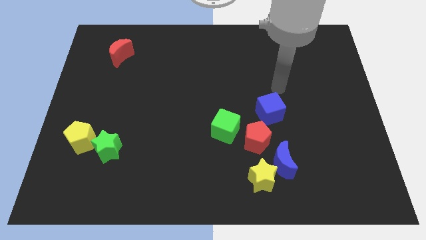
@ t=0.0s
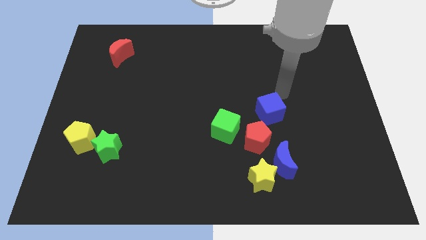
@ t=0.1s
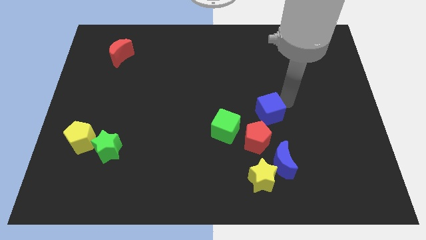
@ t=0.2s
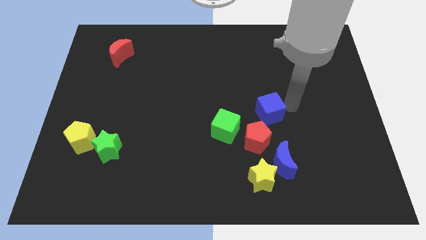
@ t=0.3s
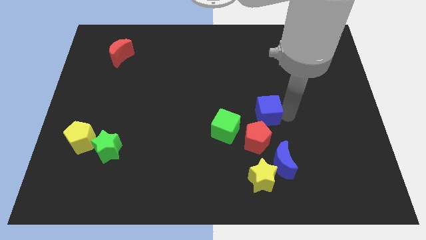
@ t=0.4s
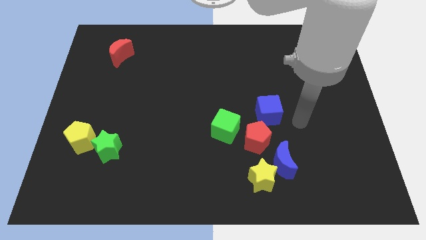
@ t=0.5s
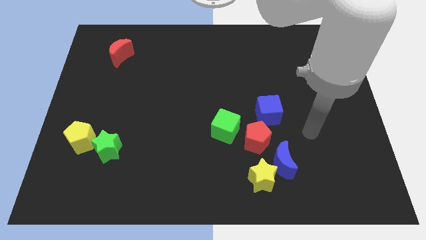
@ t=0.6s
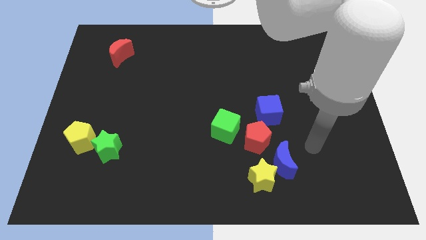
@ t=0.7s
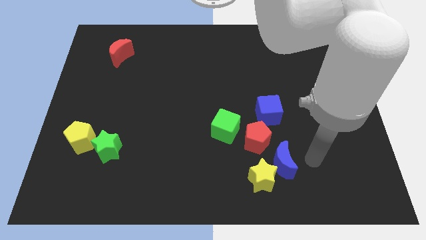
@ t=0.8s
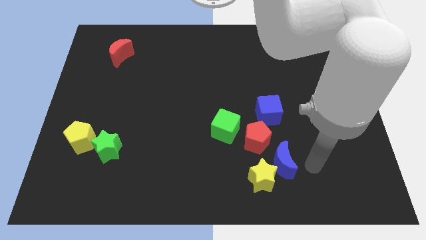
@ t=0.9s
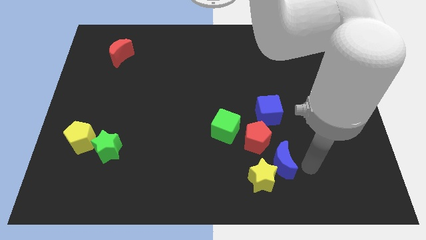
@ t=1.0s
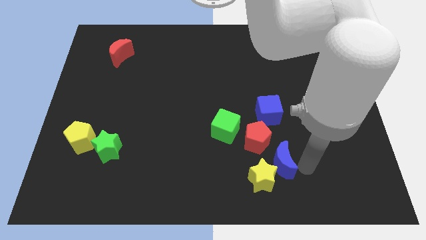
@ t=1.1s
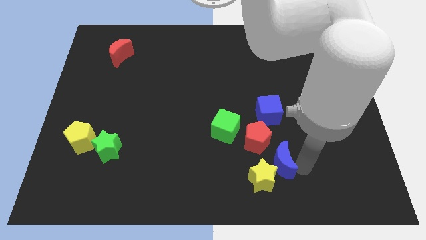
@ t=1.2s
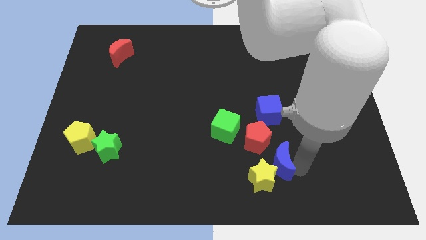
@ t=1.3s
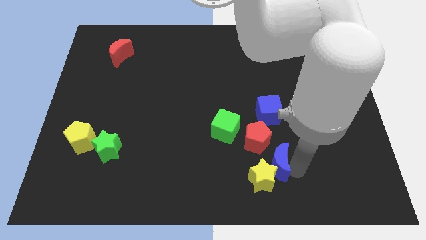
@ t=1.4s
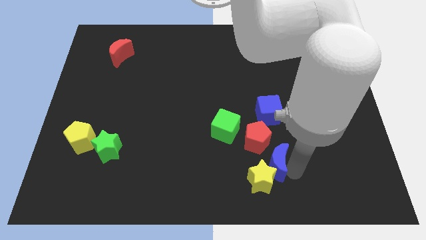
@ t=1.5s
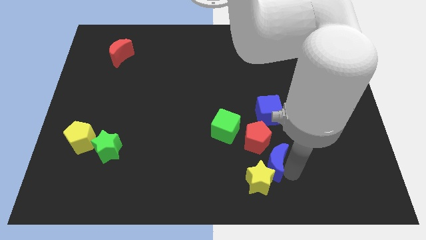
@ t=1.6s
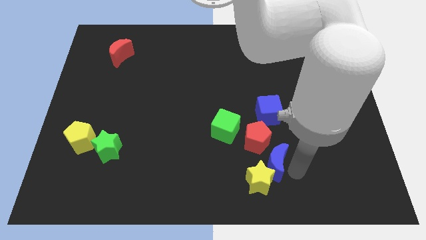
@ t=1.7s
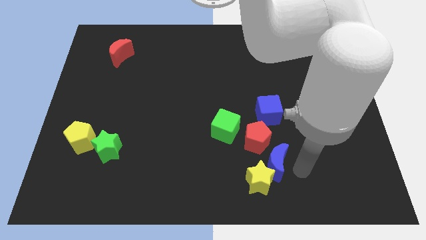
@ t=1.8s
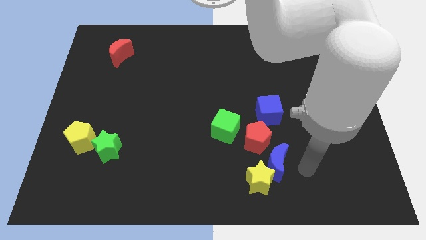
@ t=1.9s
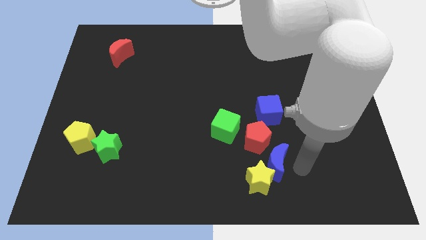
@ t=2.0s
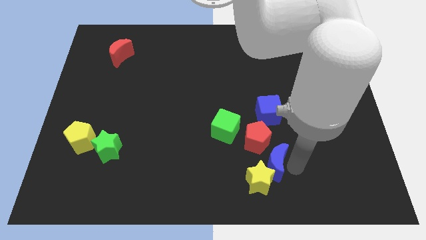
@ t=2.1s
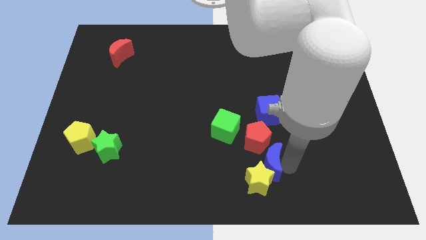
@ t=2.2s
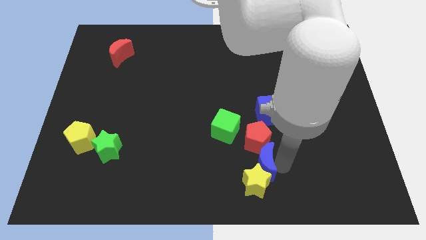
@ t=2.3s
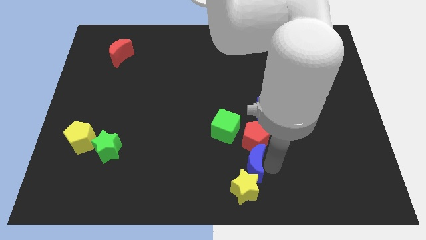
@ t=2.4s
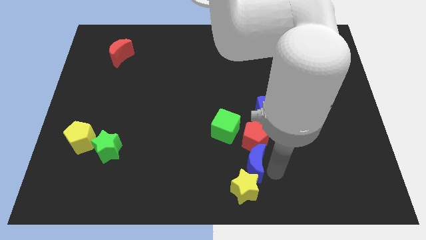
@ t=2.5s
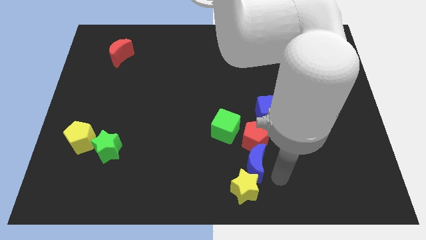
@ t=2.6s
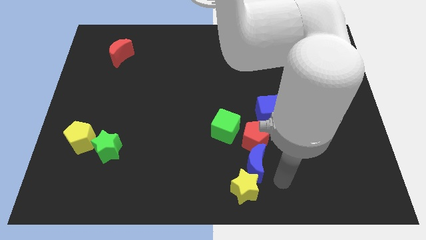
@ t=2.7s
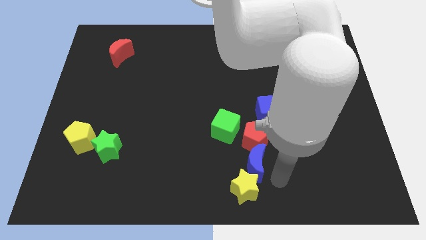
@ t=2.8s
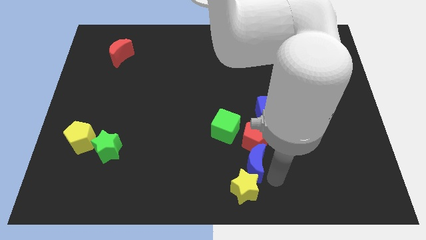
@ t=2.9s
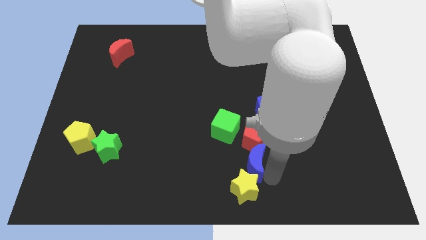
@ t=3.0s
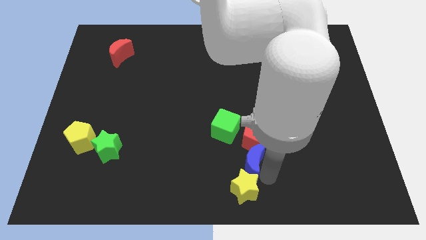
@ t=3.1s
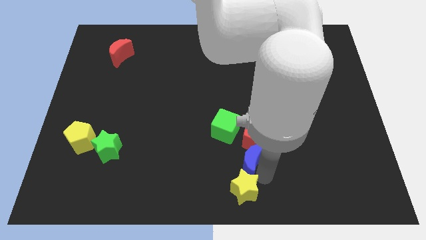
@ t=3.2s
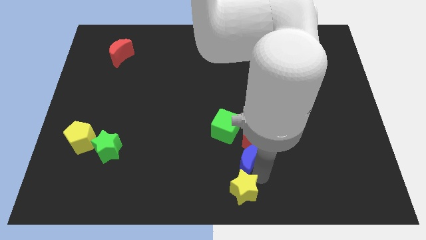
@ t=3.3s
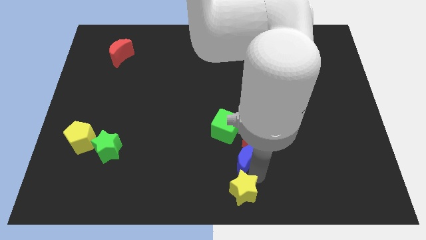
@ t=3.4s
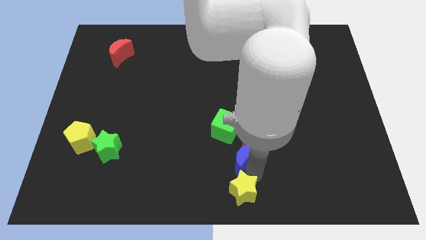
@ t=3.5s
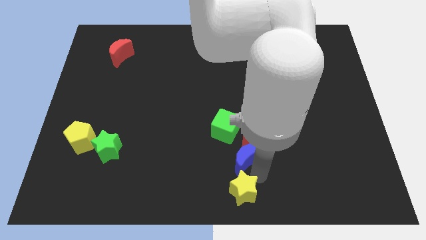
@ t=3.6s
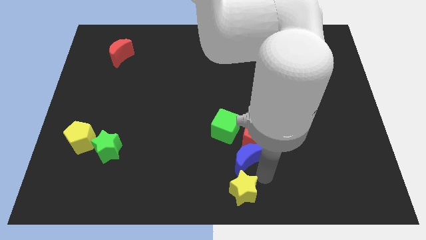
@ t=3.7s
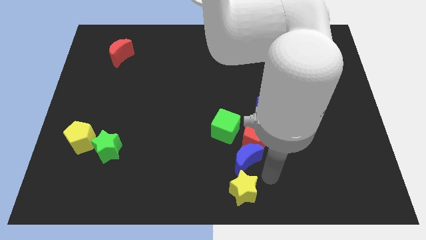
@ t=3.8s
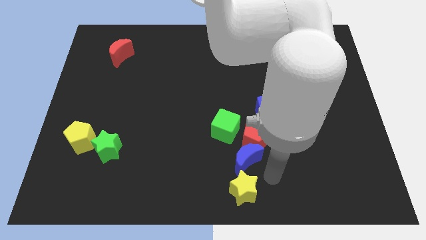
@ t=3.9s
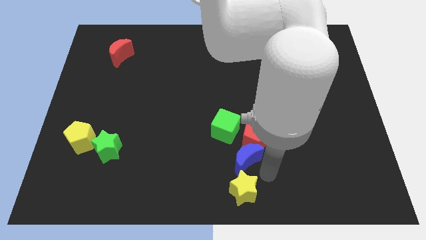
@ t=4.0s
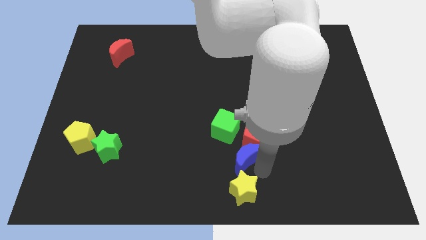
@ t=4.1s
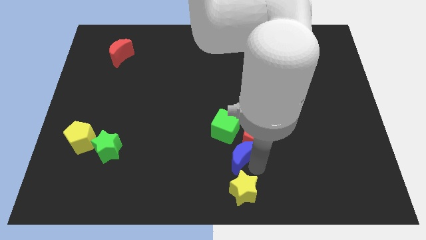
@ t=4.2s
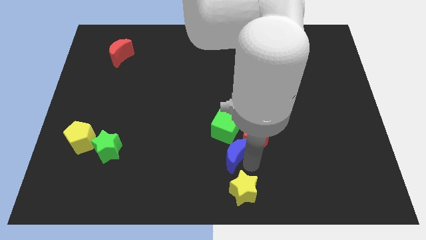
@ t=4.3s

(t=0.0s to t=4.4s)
slide the blue moon upwards and to the left a little

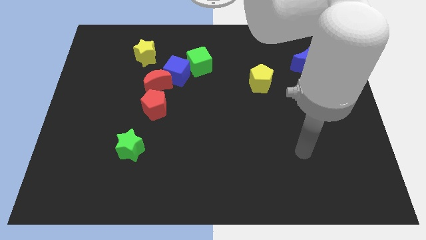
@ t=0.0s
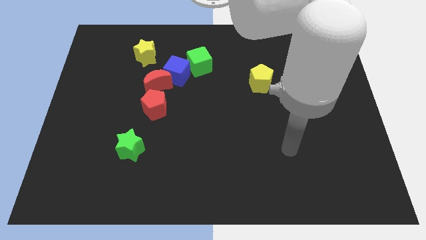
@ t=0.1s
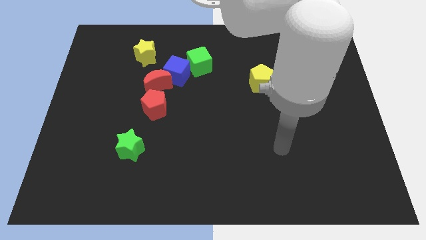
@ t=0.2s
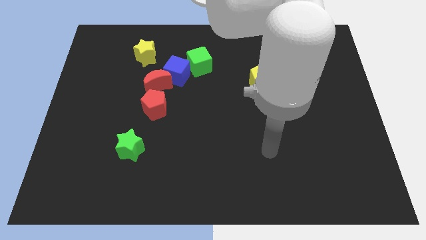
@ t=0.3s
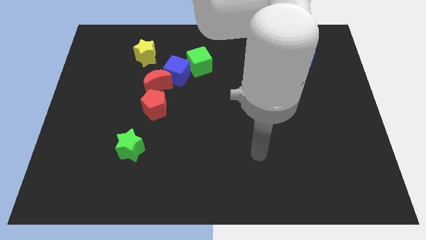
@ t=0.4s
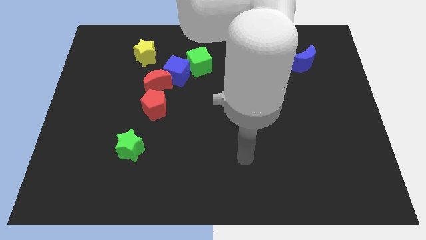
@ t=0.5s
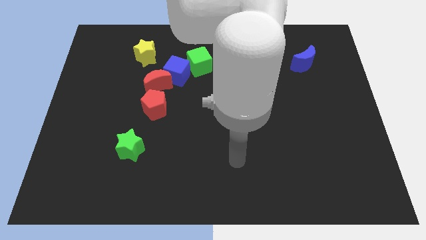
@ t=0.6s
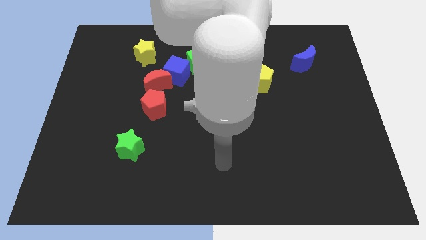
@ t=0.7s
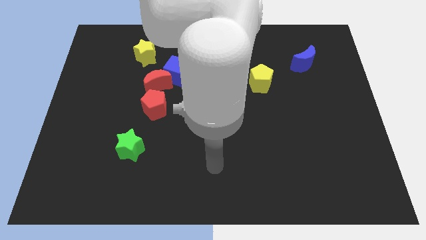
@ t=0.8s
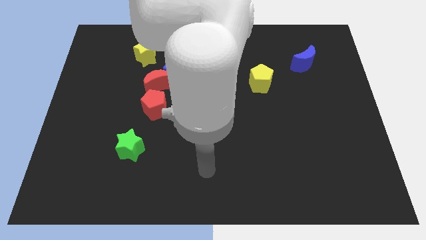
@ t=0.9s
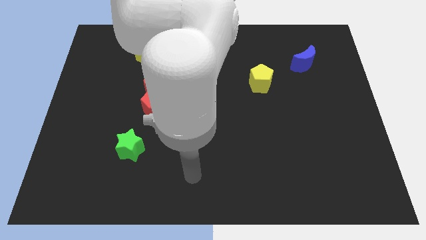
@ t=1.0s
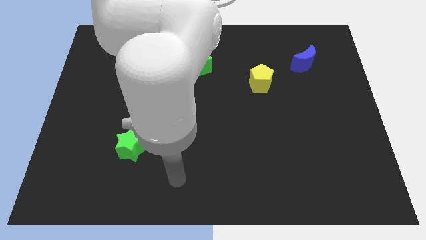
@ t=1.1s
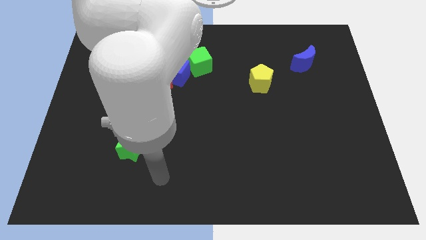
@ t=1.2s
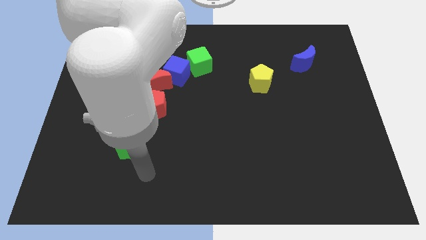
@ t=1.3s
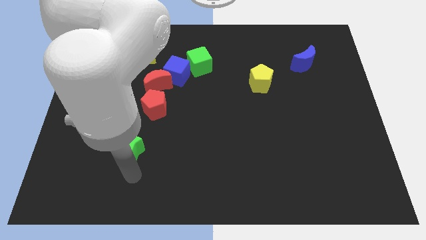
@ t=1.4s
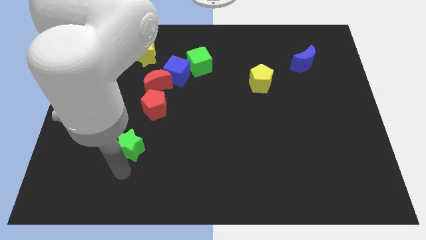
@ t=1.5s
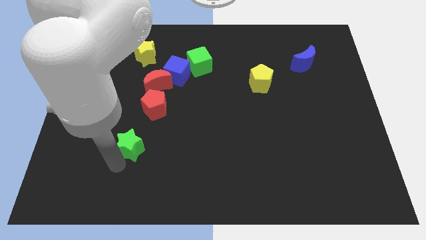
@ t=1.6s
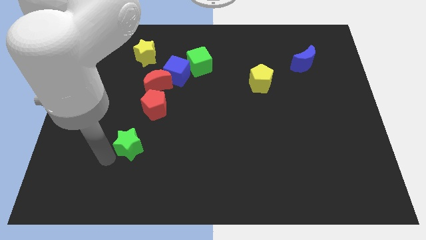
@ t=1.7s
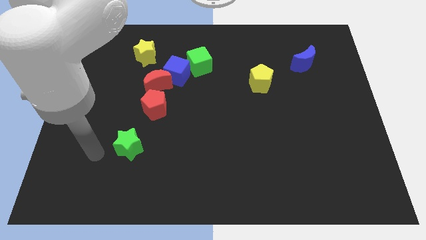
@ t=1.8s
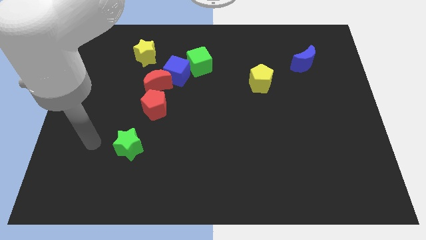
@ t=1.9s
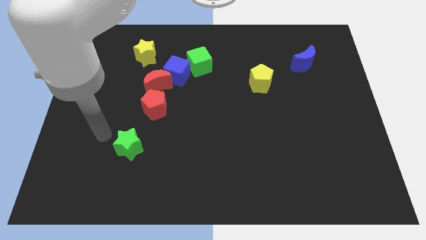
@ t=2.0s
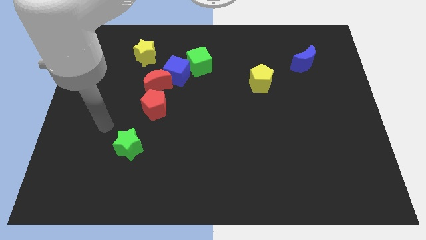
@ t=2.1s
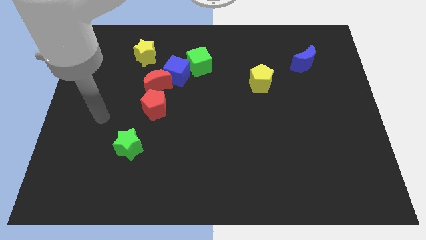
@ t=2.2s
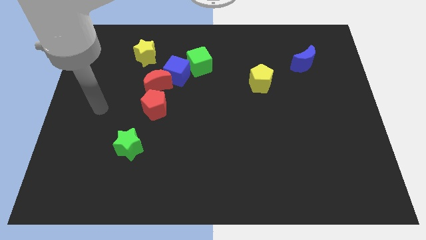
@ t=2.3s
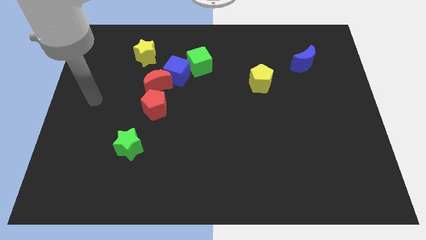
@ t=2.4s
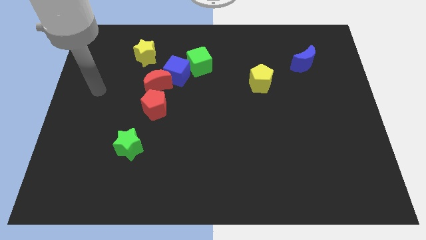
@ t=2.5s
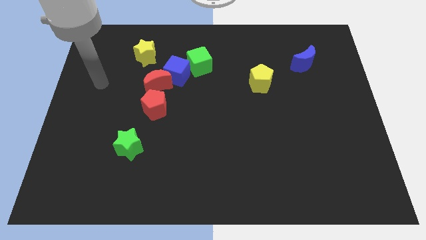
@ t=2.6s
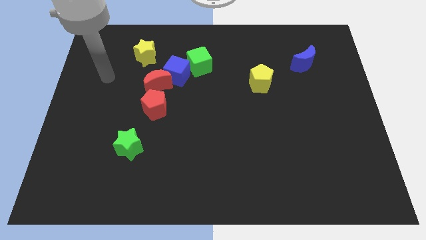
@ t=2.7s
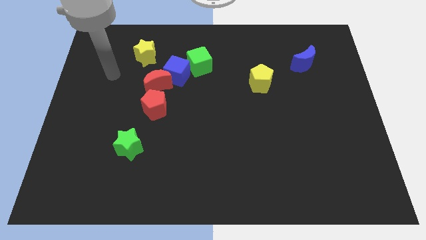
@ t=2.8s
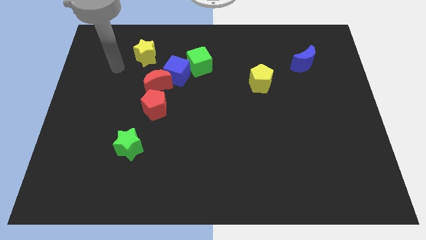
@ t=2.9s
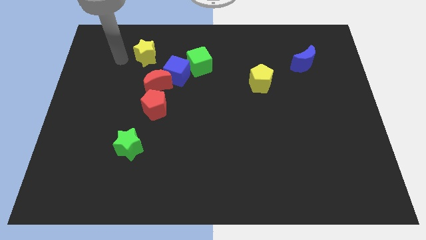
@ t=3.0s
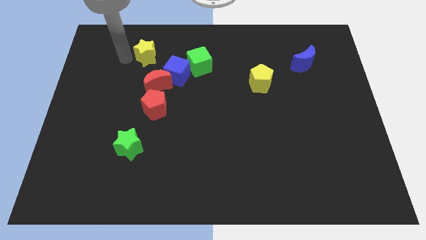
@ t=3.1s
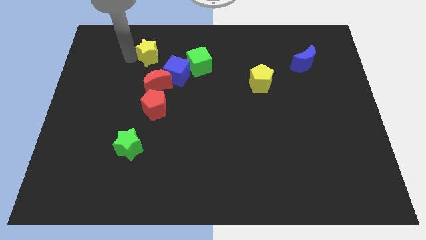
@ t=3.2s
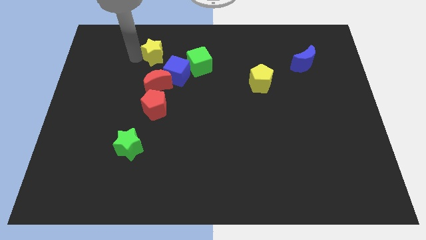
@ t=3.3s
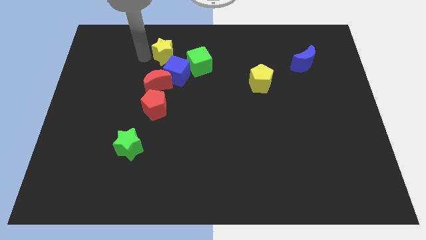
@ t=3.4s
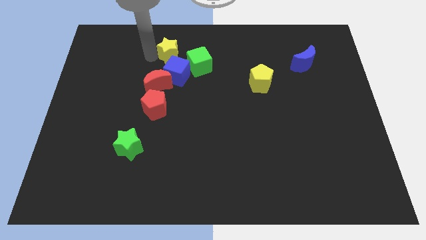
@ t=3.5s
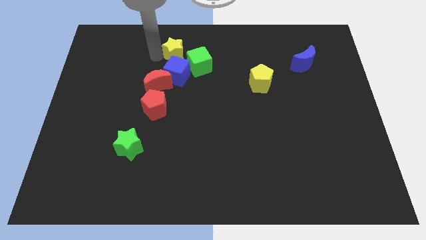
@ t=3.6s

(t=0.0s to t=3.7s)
move the yellow star somewhat right
